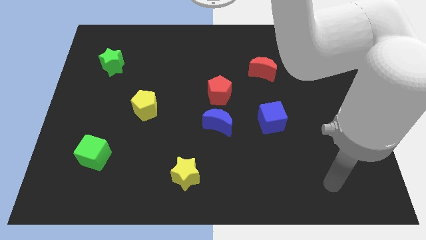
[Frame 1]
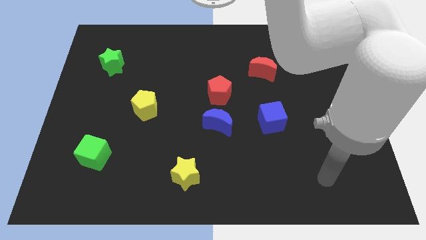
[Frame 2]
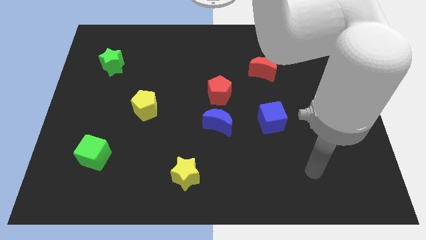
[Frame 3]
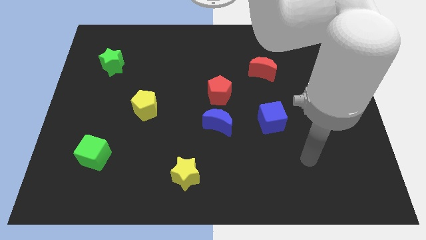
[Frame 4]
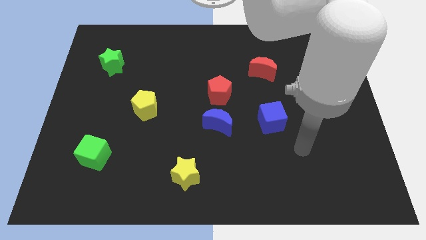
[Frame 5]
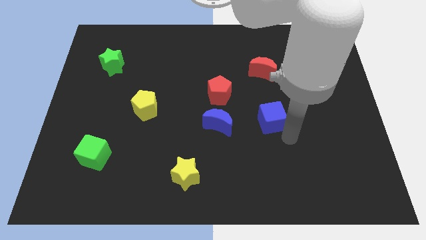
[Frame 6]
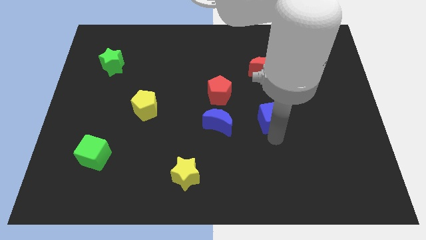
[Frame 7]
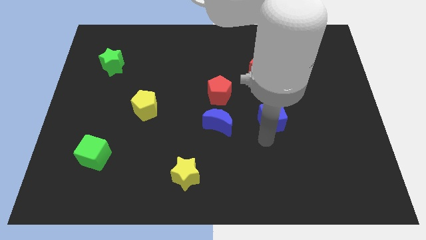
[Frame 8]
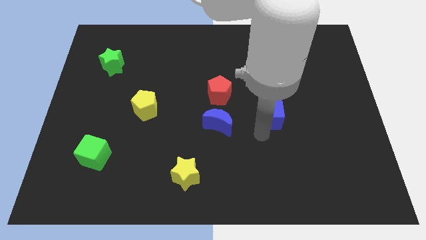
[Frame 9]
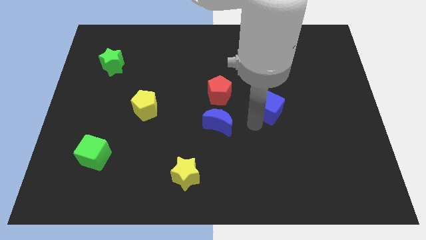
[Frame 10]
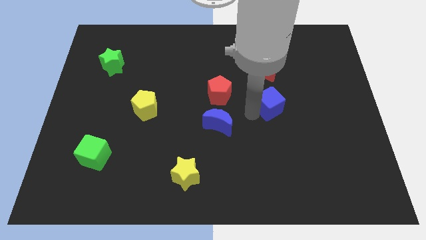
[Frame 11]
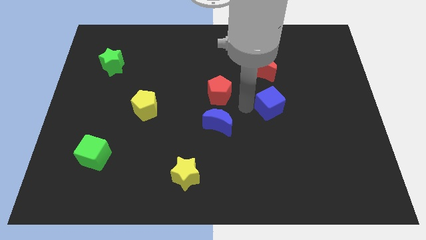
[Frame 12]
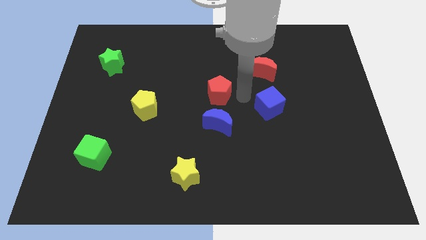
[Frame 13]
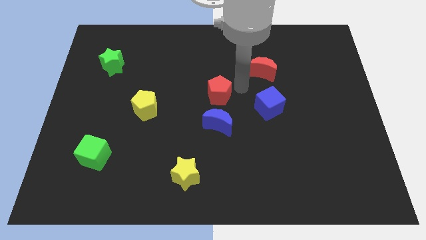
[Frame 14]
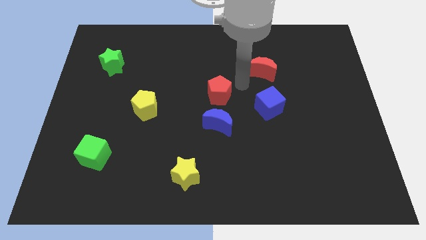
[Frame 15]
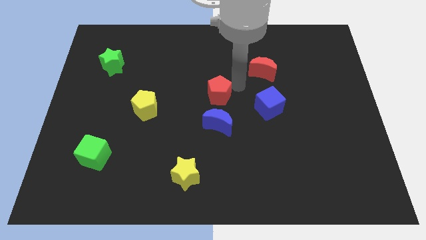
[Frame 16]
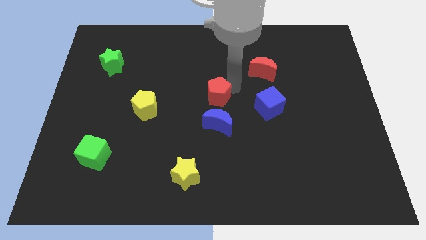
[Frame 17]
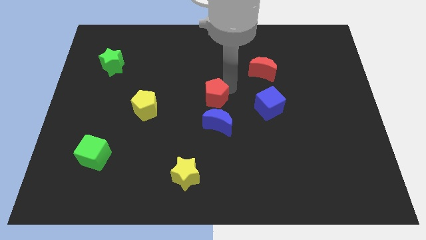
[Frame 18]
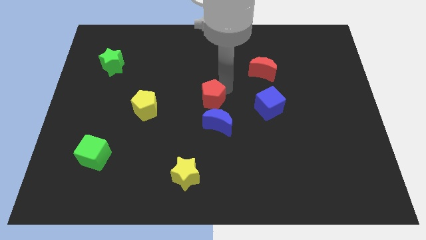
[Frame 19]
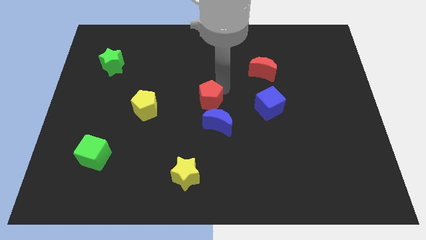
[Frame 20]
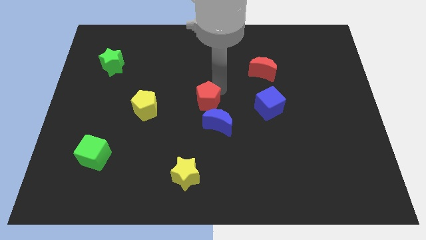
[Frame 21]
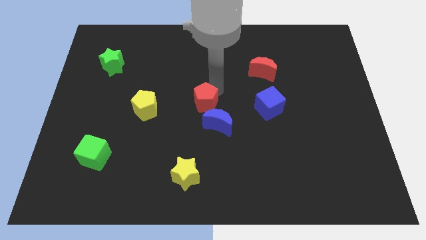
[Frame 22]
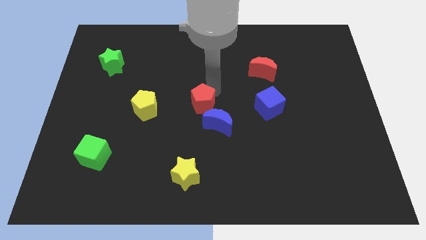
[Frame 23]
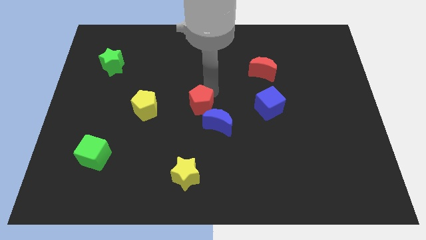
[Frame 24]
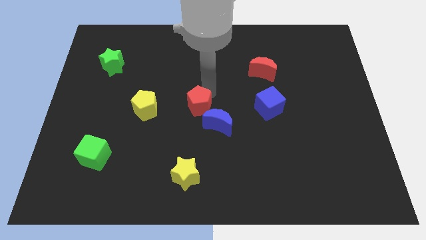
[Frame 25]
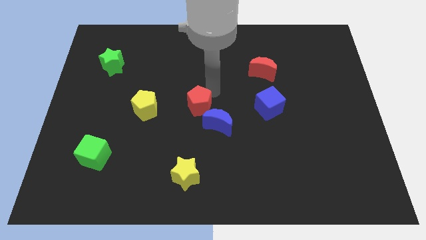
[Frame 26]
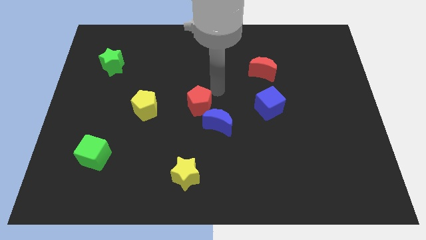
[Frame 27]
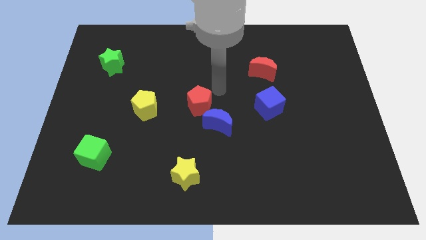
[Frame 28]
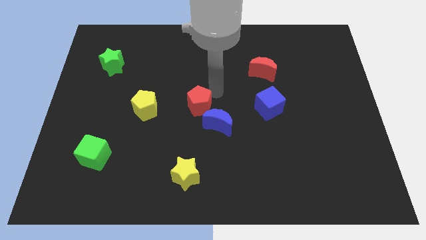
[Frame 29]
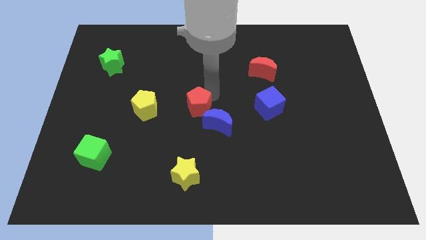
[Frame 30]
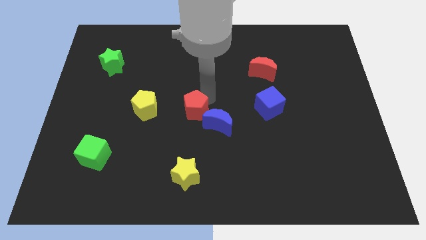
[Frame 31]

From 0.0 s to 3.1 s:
move the red pentagon down and to the left diagonally slightly

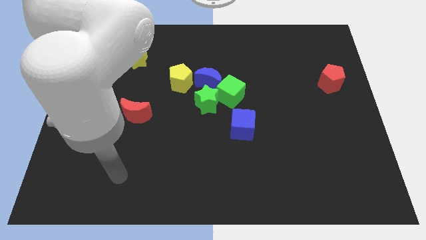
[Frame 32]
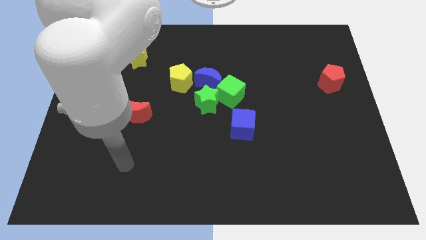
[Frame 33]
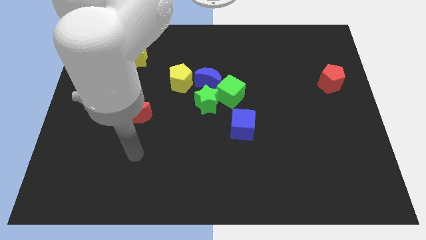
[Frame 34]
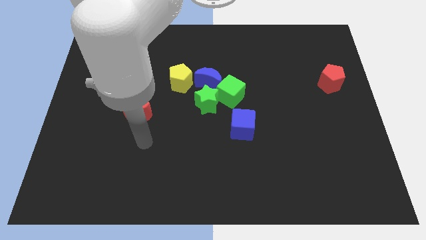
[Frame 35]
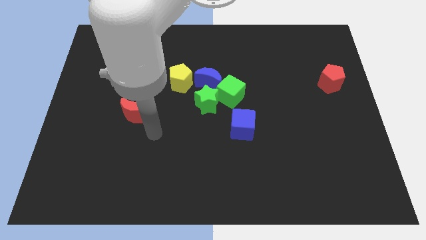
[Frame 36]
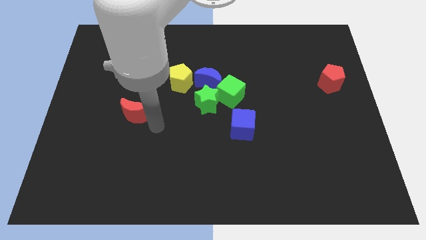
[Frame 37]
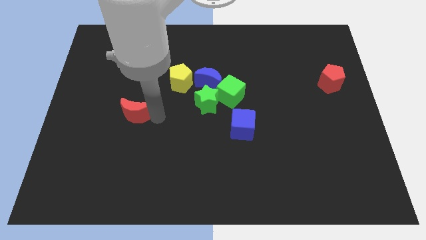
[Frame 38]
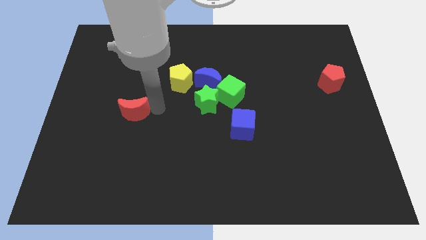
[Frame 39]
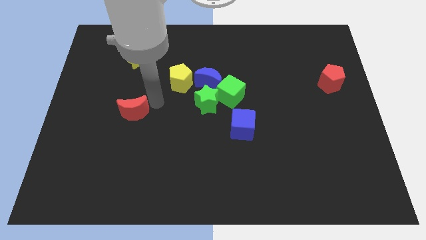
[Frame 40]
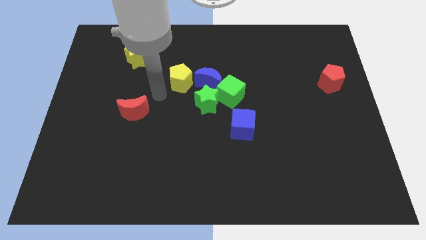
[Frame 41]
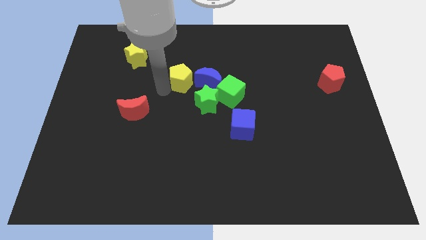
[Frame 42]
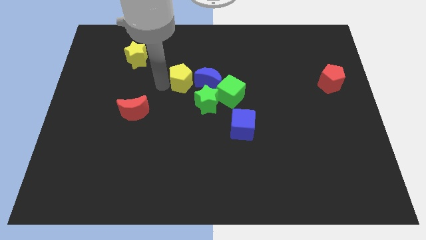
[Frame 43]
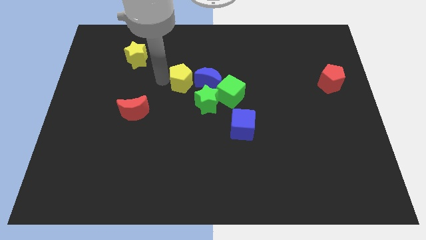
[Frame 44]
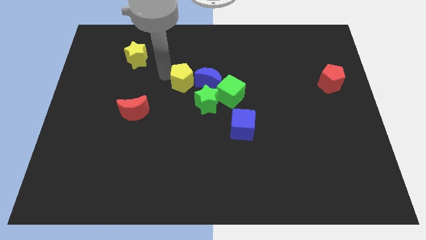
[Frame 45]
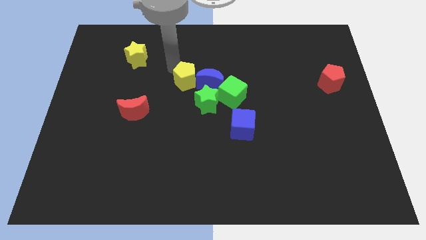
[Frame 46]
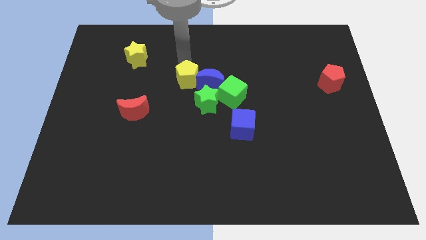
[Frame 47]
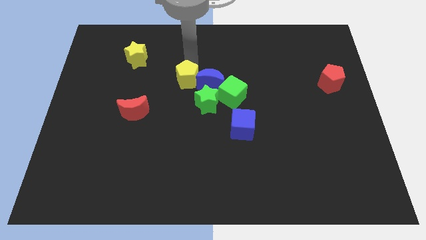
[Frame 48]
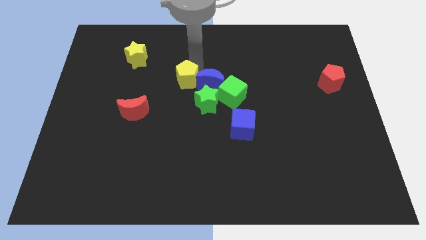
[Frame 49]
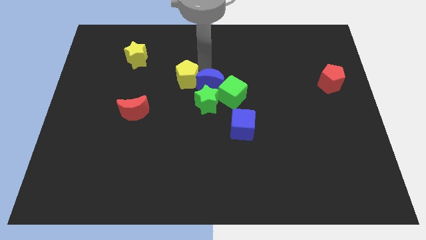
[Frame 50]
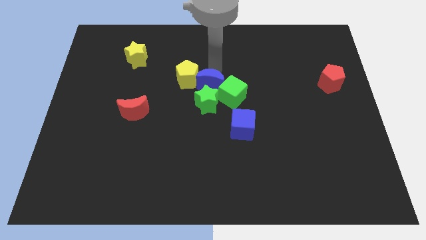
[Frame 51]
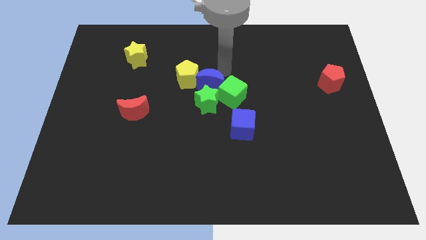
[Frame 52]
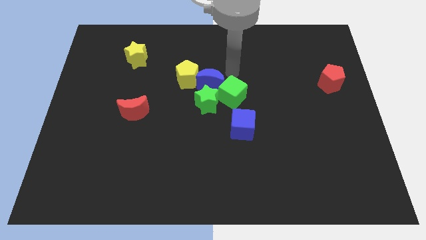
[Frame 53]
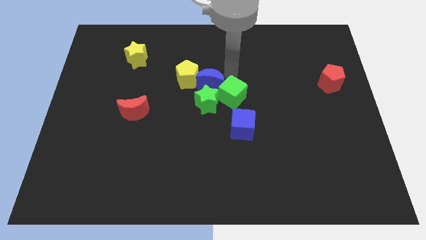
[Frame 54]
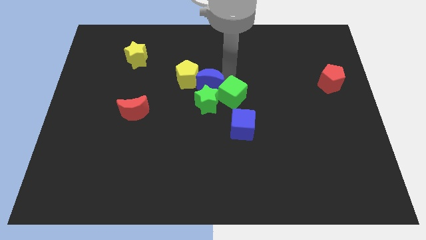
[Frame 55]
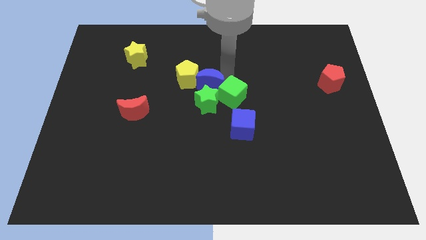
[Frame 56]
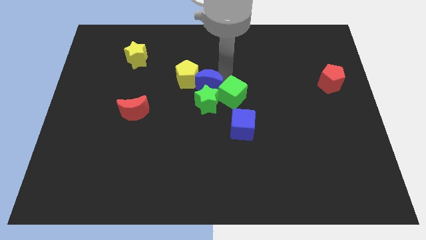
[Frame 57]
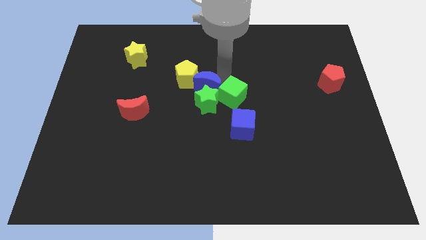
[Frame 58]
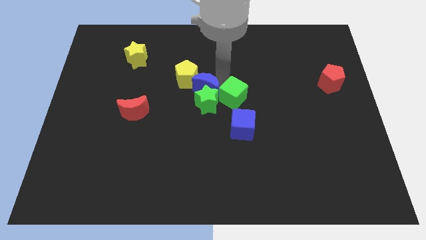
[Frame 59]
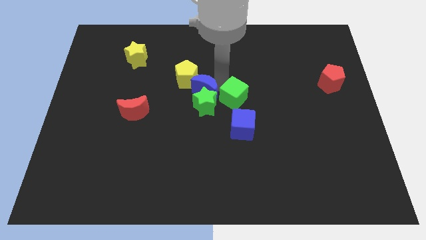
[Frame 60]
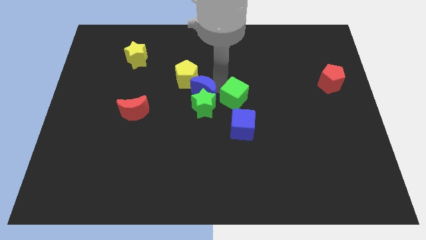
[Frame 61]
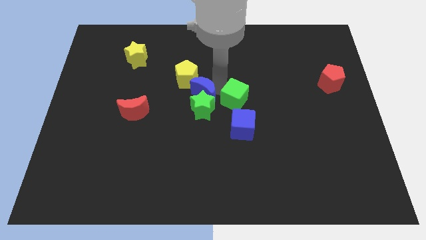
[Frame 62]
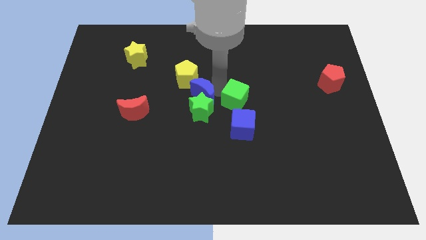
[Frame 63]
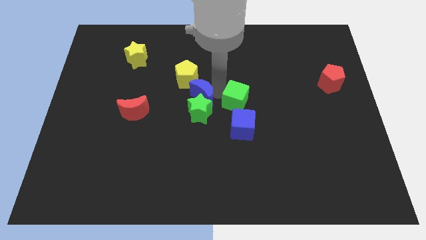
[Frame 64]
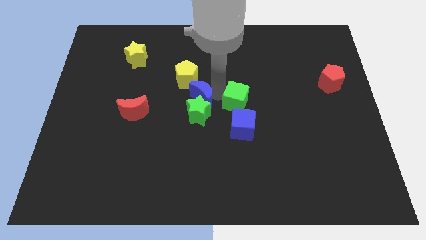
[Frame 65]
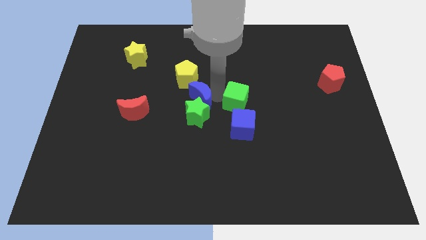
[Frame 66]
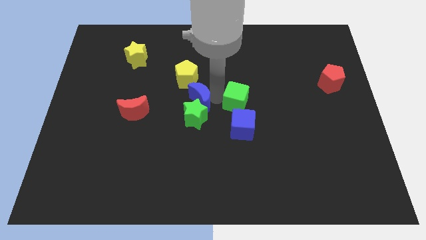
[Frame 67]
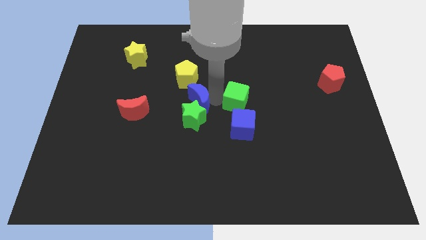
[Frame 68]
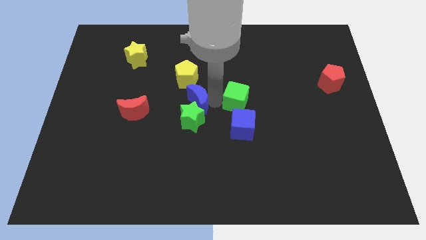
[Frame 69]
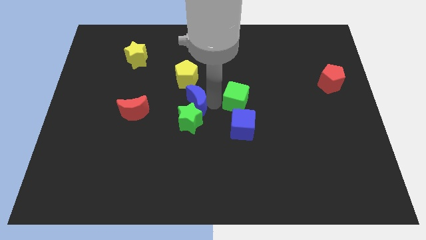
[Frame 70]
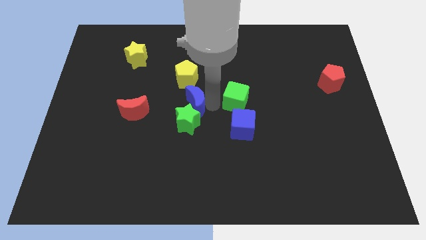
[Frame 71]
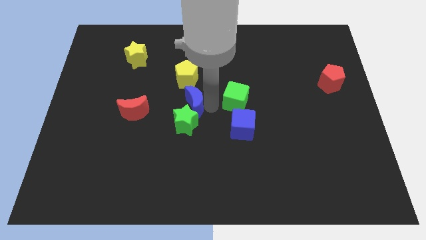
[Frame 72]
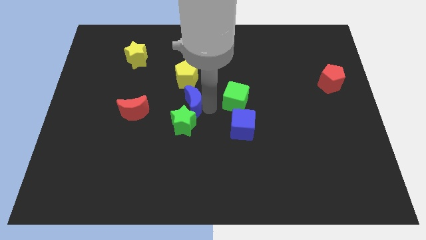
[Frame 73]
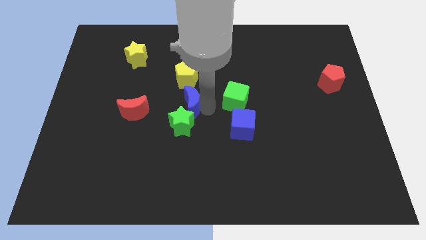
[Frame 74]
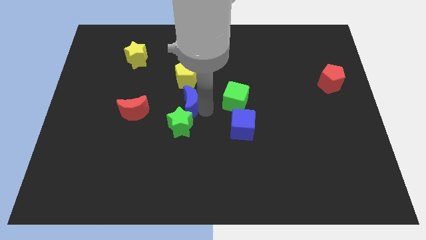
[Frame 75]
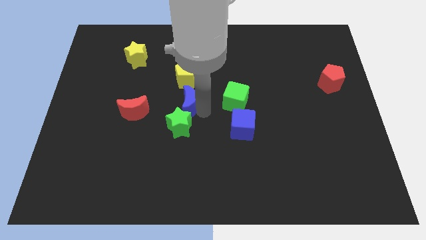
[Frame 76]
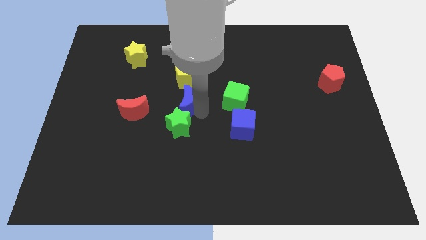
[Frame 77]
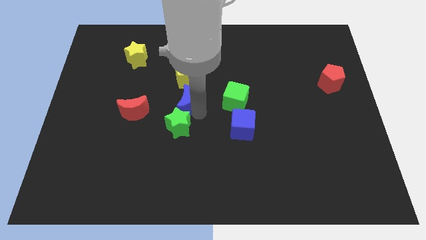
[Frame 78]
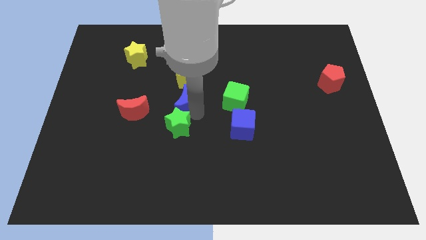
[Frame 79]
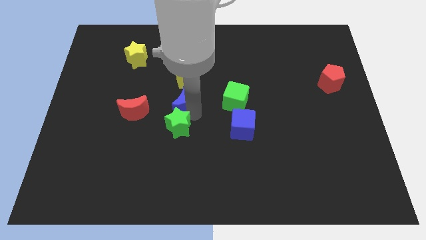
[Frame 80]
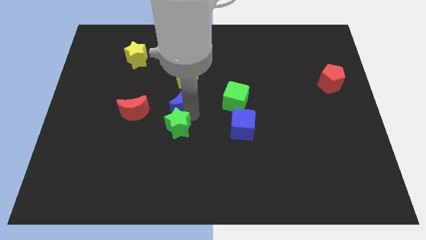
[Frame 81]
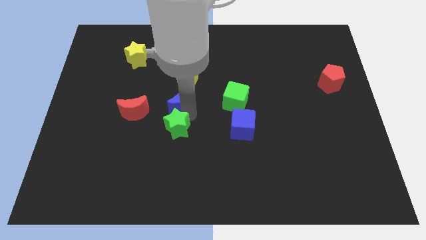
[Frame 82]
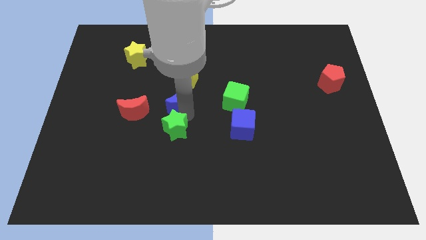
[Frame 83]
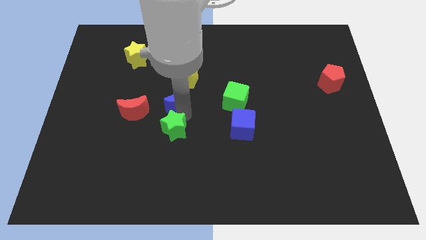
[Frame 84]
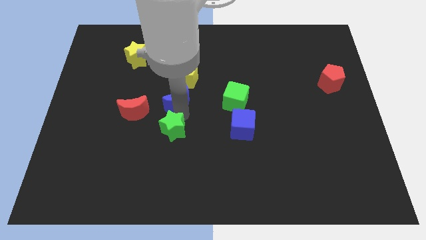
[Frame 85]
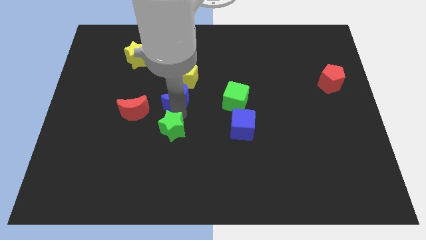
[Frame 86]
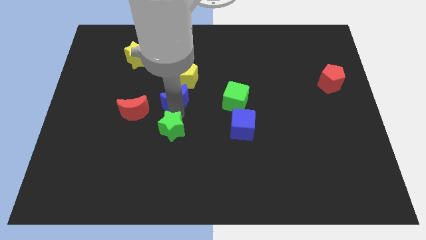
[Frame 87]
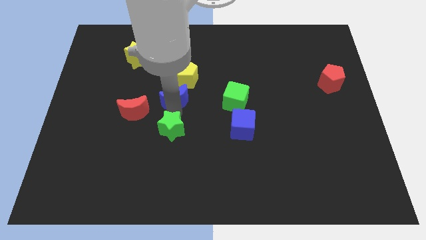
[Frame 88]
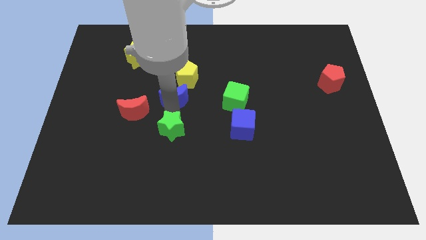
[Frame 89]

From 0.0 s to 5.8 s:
slide the blue moon a little bit left
